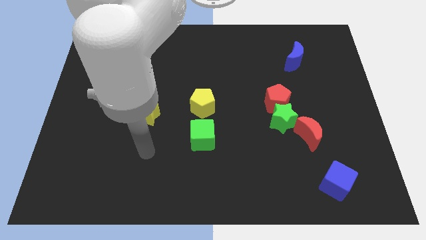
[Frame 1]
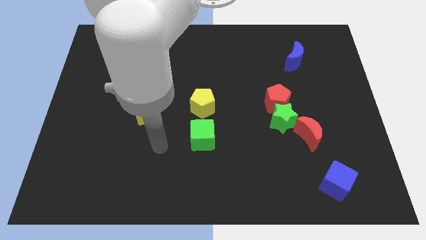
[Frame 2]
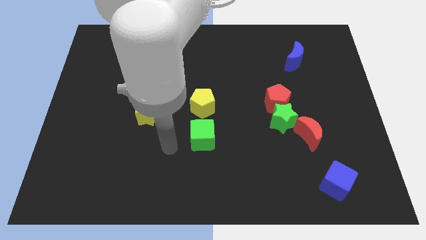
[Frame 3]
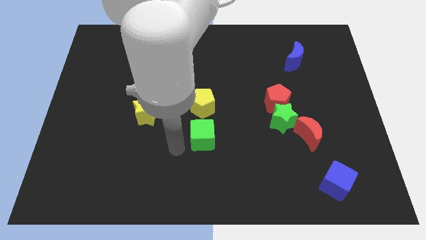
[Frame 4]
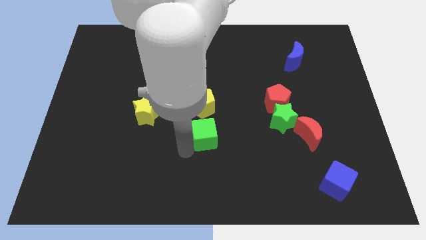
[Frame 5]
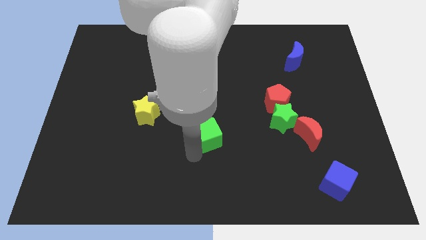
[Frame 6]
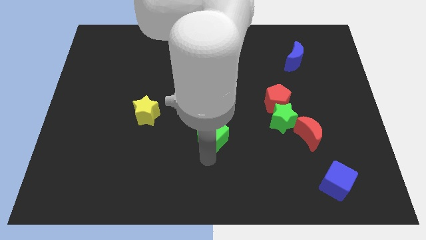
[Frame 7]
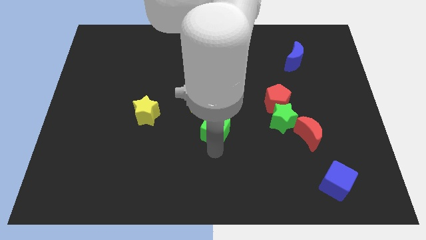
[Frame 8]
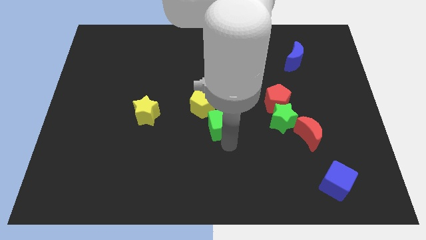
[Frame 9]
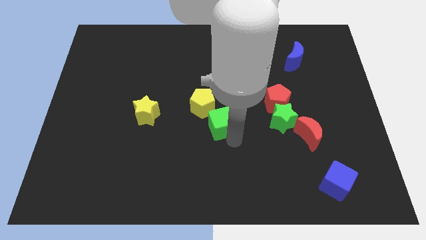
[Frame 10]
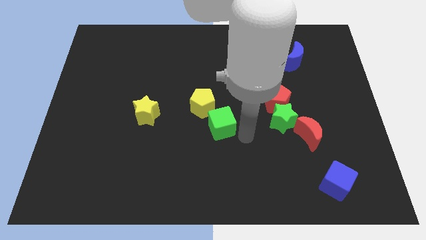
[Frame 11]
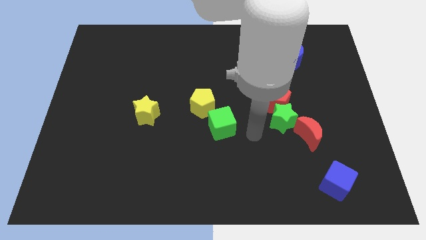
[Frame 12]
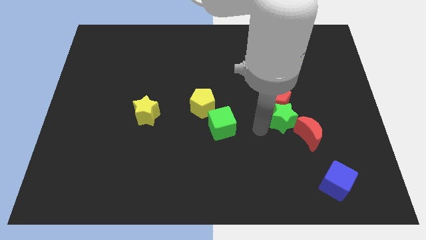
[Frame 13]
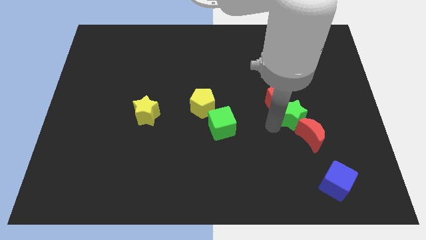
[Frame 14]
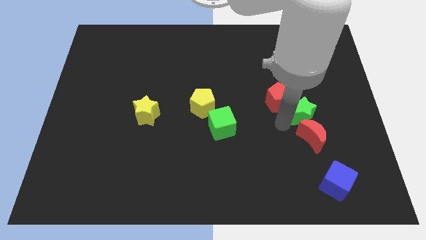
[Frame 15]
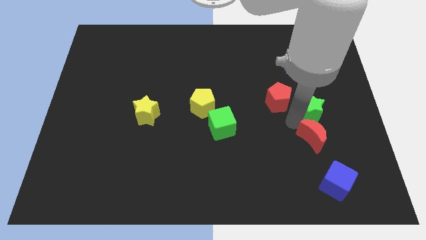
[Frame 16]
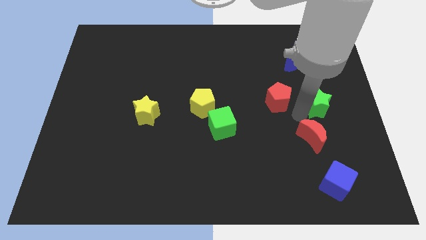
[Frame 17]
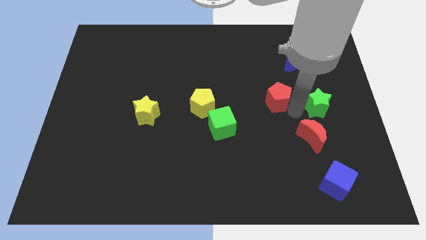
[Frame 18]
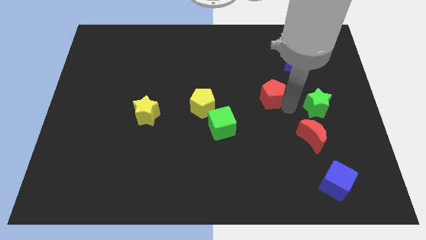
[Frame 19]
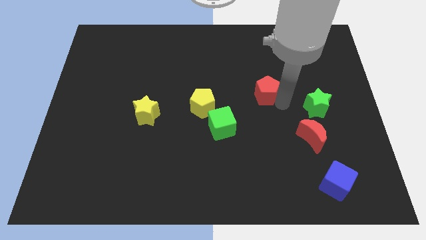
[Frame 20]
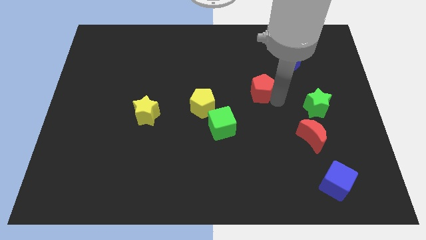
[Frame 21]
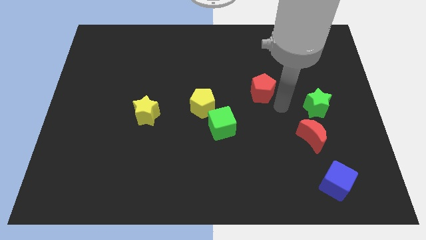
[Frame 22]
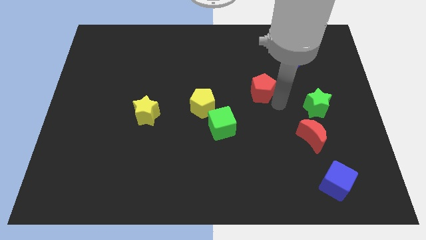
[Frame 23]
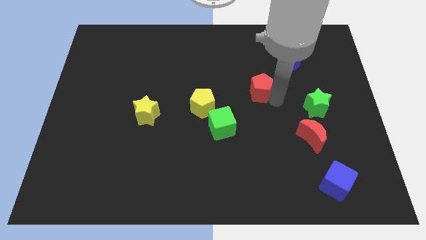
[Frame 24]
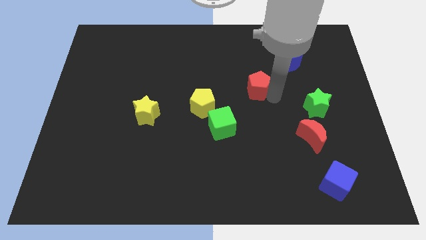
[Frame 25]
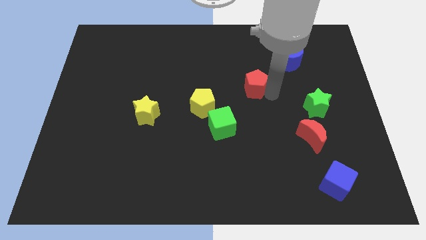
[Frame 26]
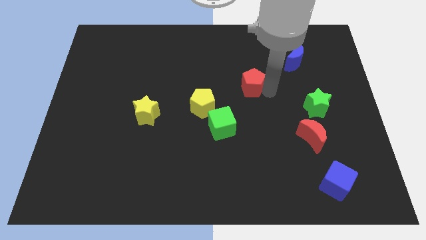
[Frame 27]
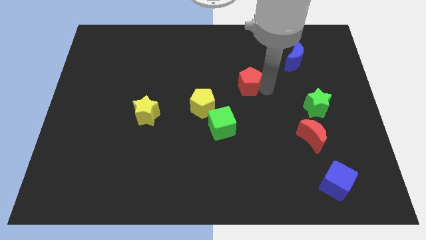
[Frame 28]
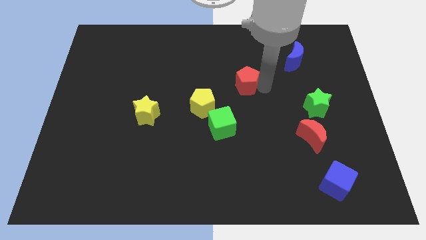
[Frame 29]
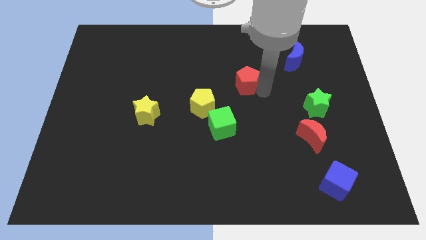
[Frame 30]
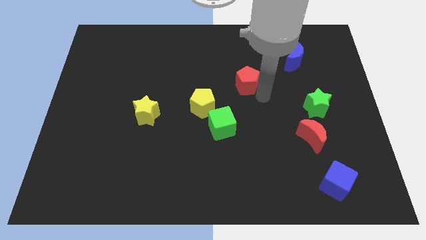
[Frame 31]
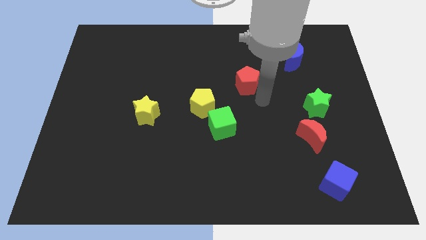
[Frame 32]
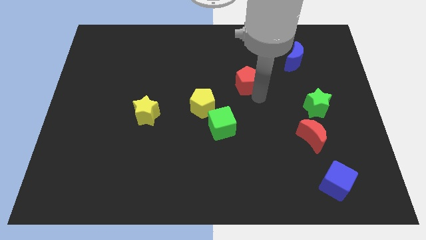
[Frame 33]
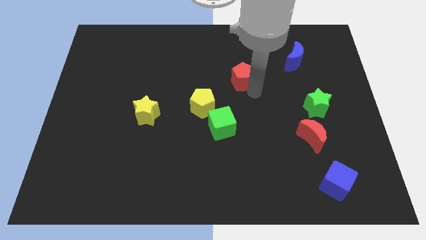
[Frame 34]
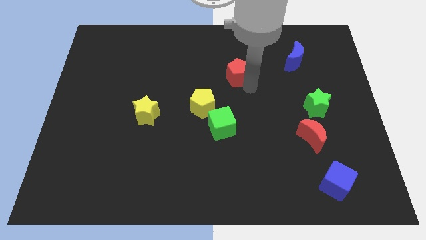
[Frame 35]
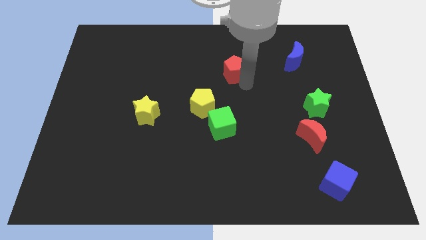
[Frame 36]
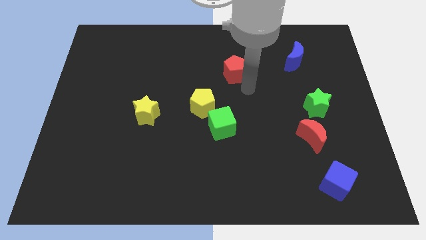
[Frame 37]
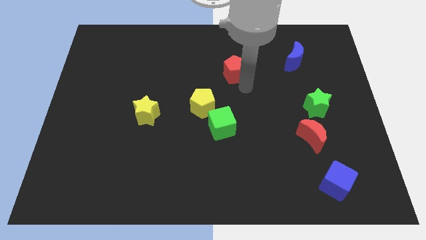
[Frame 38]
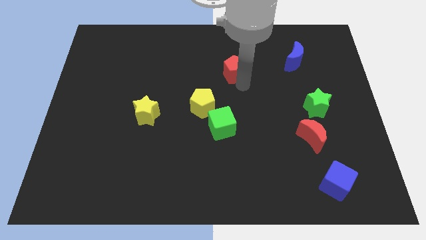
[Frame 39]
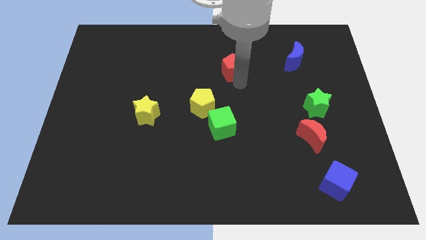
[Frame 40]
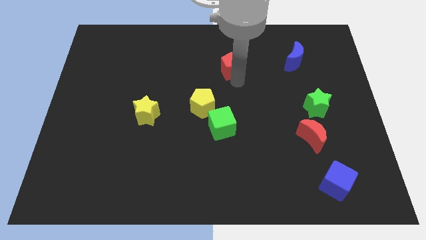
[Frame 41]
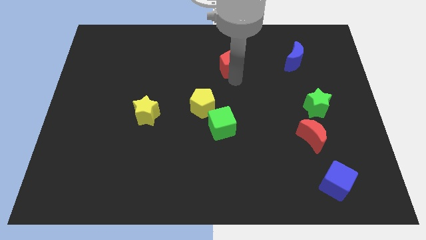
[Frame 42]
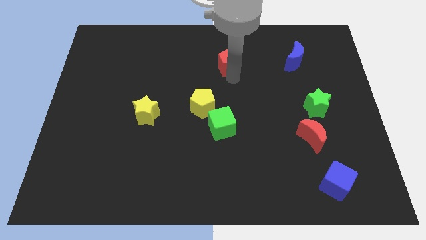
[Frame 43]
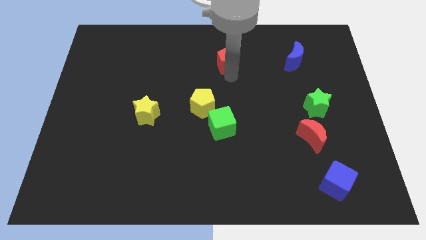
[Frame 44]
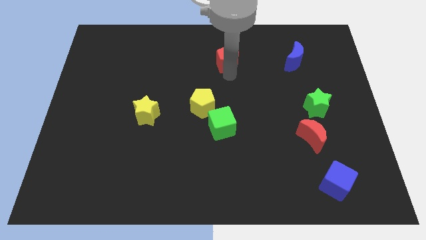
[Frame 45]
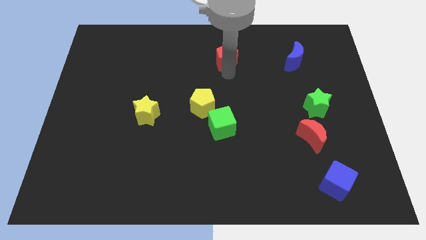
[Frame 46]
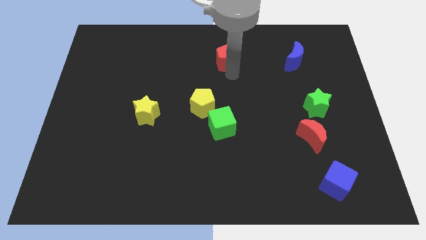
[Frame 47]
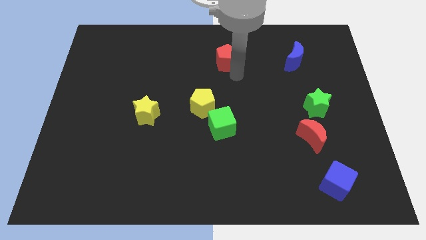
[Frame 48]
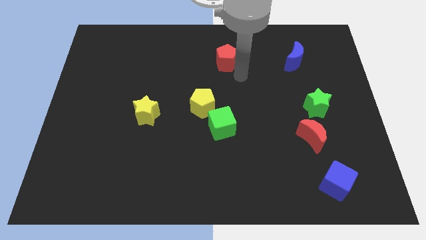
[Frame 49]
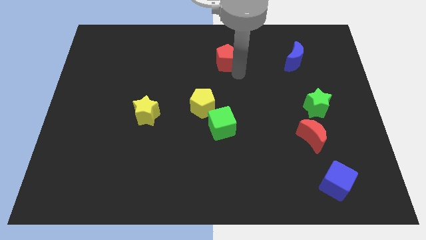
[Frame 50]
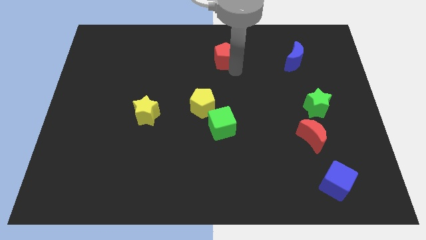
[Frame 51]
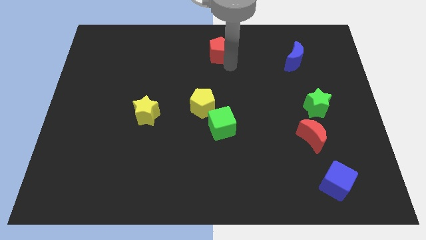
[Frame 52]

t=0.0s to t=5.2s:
move the red pentagon to the top side

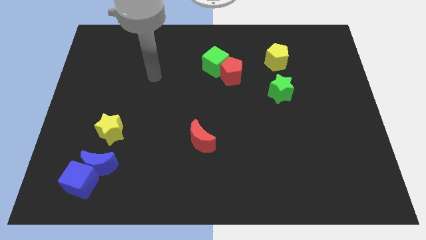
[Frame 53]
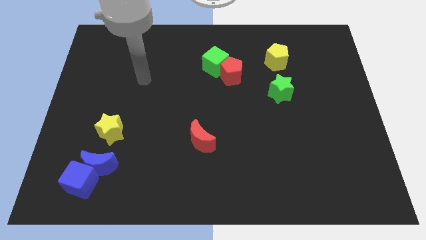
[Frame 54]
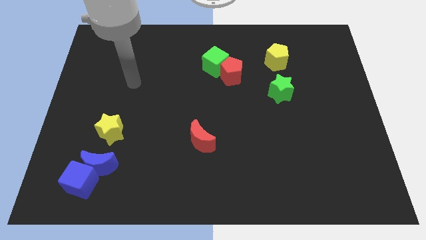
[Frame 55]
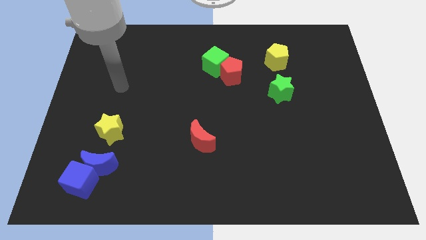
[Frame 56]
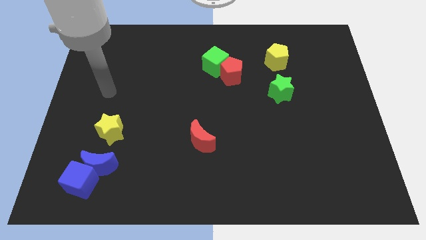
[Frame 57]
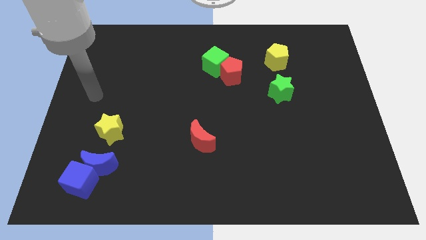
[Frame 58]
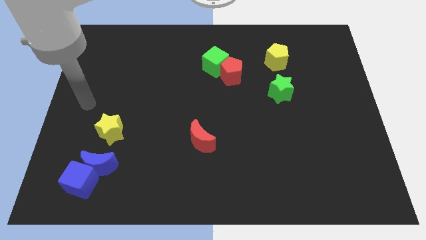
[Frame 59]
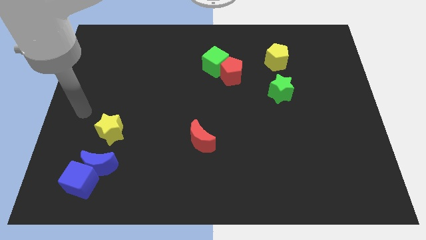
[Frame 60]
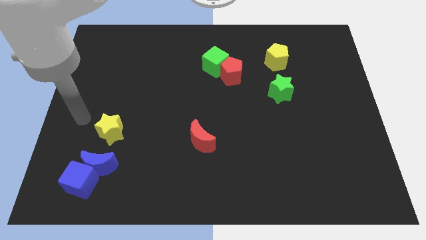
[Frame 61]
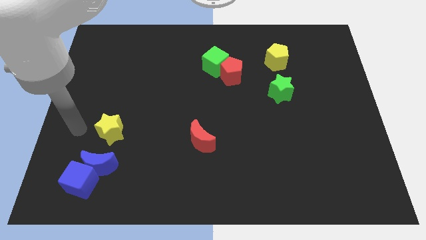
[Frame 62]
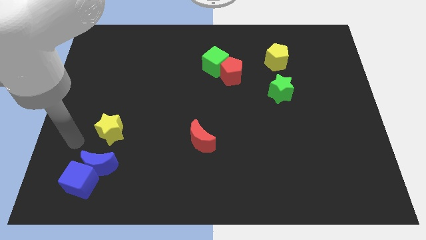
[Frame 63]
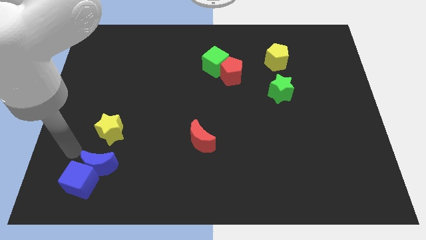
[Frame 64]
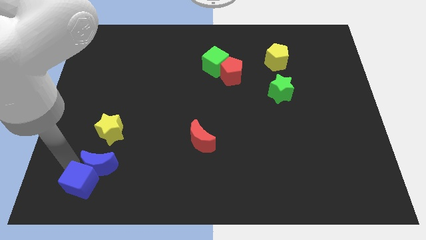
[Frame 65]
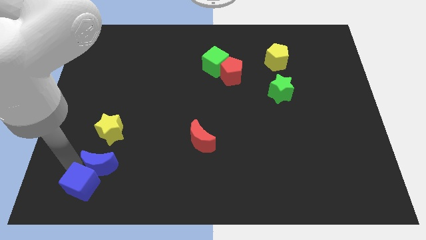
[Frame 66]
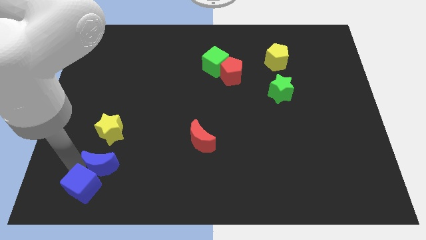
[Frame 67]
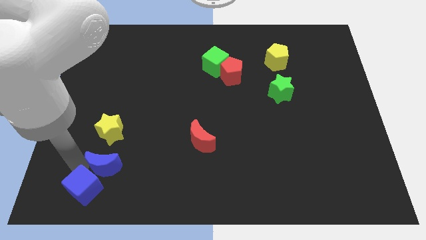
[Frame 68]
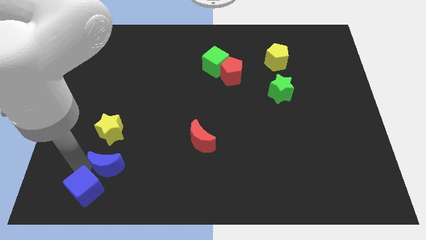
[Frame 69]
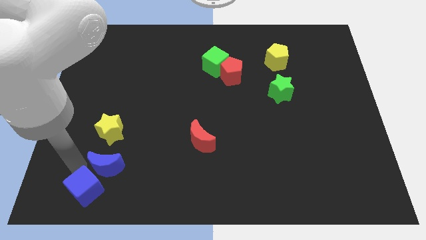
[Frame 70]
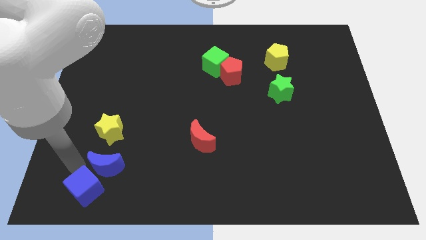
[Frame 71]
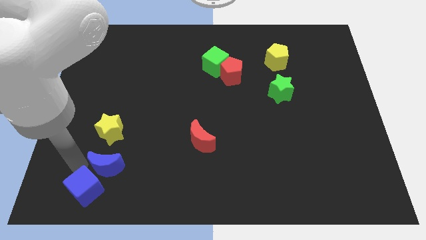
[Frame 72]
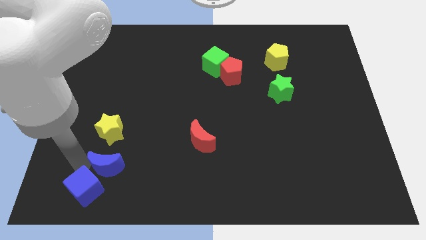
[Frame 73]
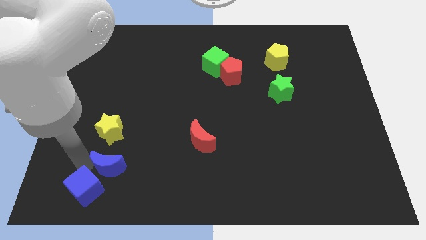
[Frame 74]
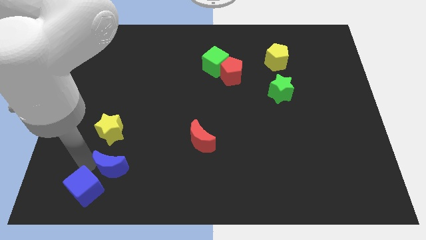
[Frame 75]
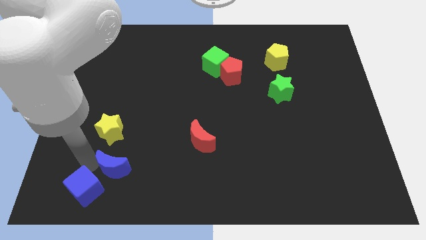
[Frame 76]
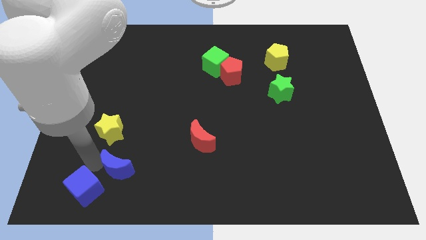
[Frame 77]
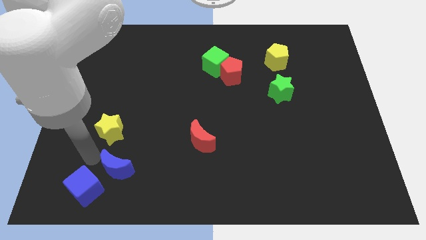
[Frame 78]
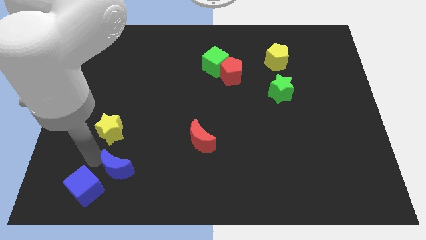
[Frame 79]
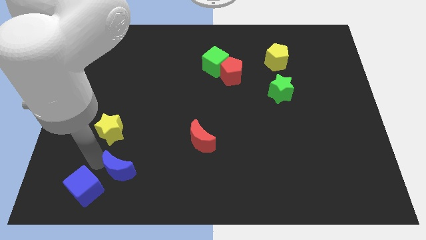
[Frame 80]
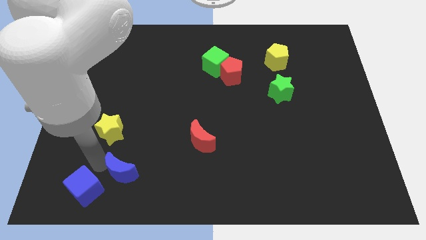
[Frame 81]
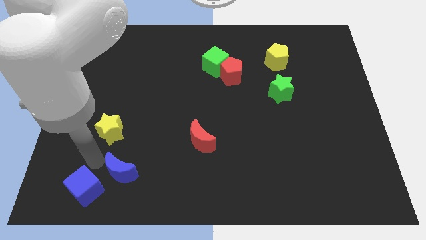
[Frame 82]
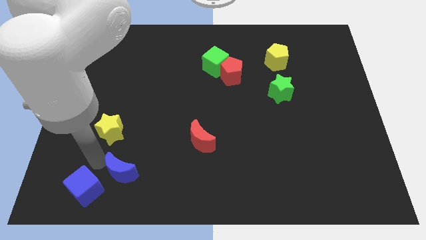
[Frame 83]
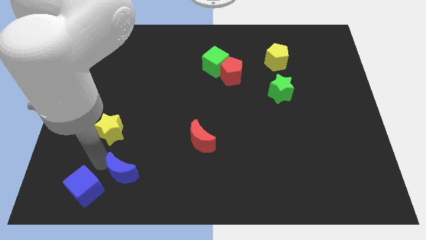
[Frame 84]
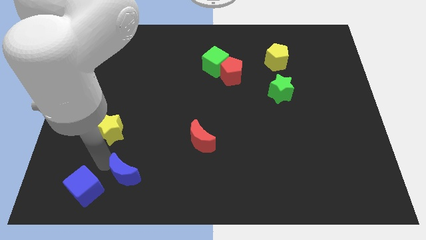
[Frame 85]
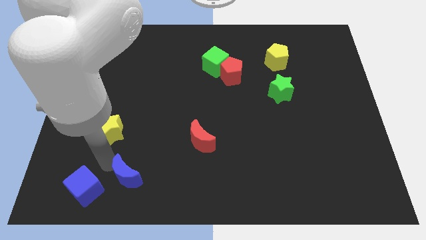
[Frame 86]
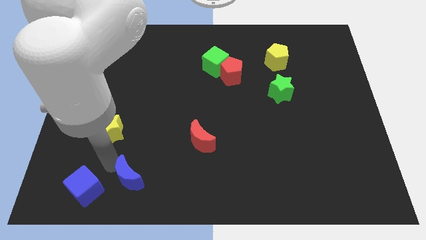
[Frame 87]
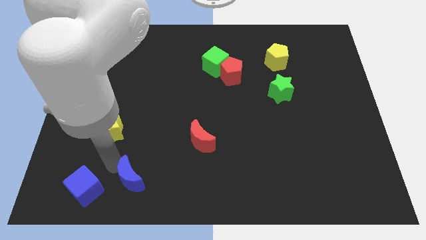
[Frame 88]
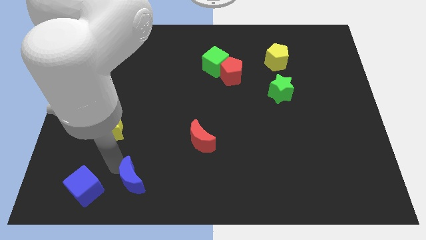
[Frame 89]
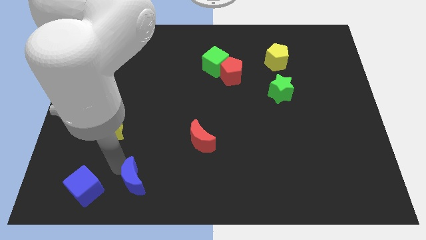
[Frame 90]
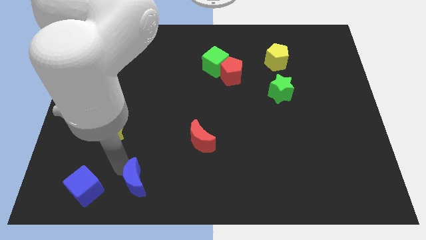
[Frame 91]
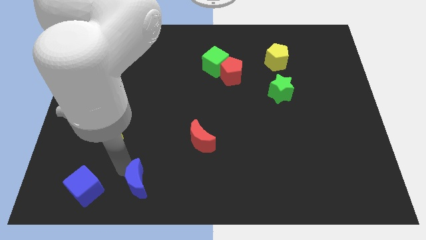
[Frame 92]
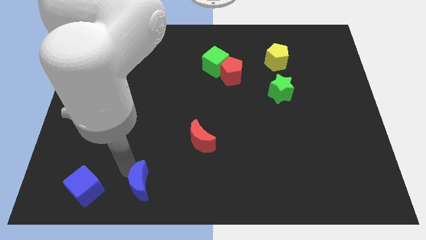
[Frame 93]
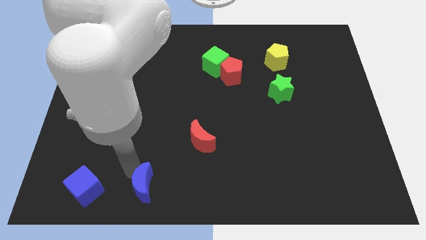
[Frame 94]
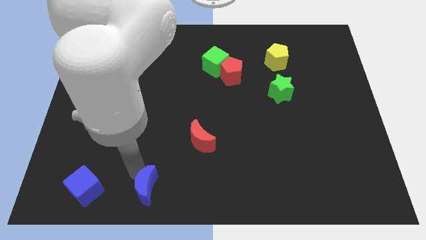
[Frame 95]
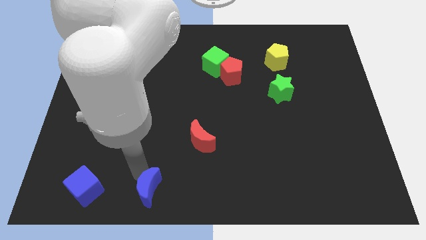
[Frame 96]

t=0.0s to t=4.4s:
push the blue moon to the bottom
